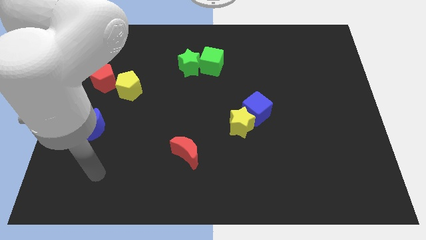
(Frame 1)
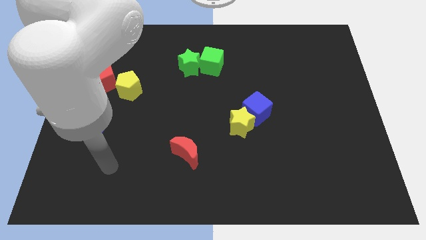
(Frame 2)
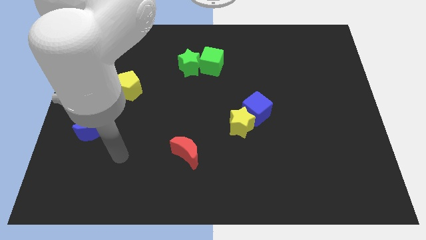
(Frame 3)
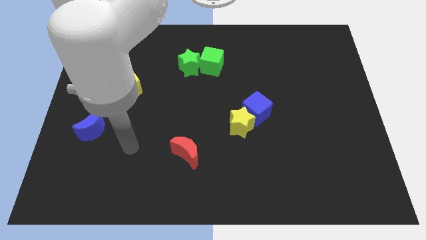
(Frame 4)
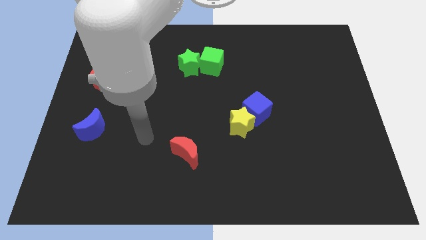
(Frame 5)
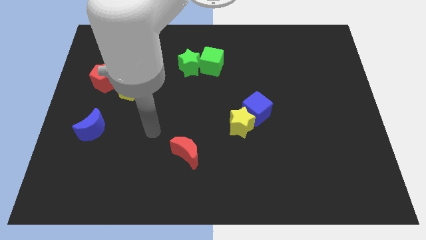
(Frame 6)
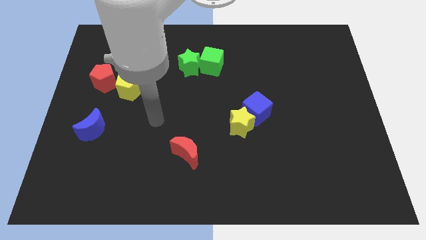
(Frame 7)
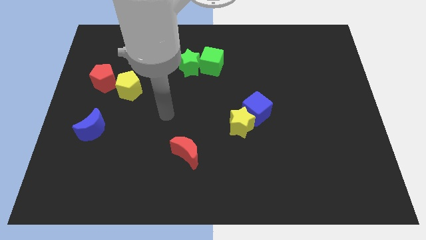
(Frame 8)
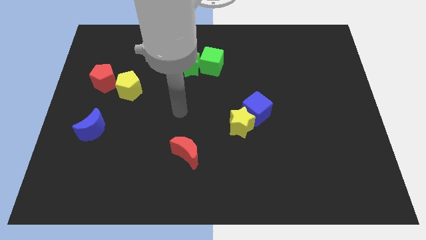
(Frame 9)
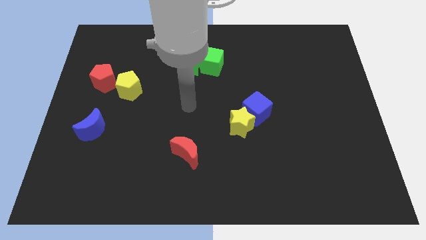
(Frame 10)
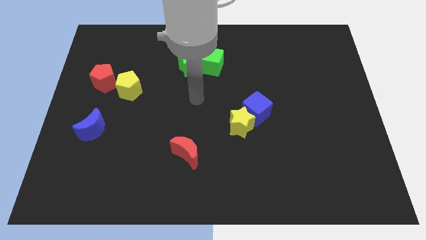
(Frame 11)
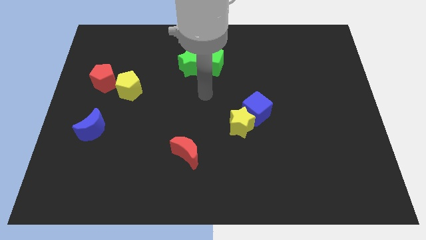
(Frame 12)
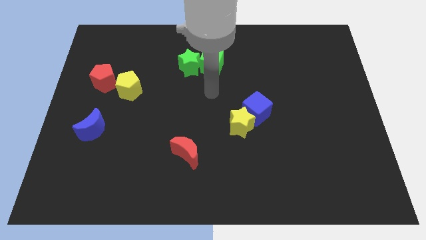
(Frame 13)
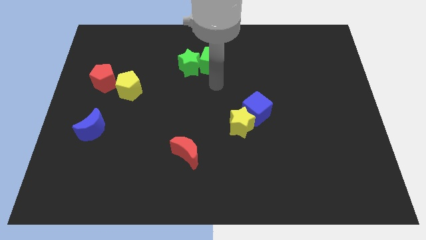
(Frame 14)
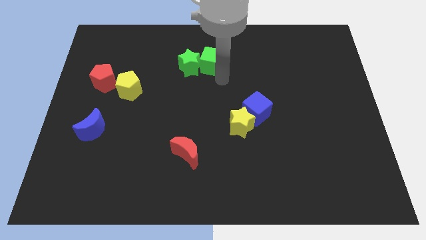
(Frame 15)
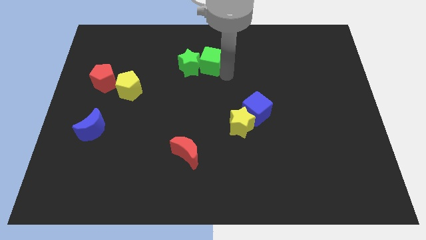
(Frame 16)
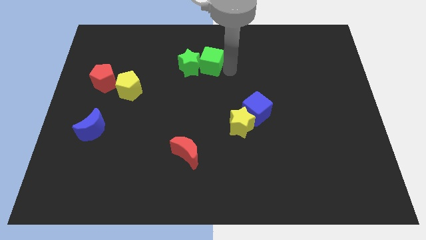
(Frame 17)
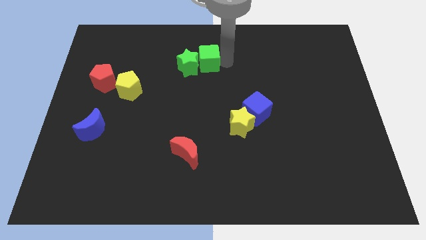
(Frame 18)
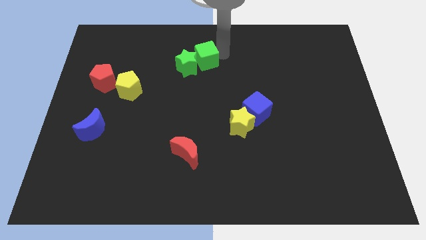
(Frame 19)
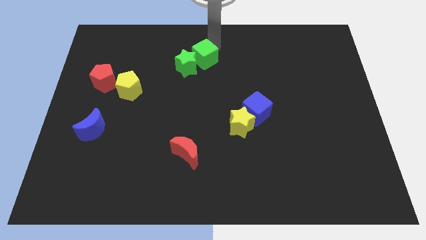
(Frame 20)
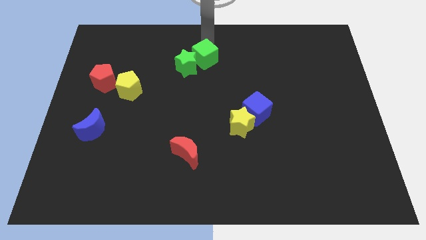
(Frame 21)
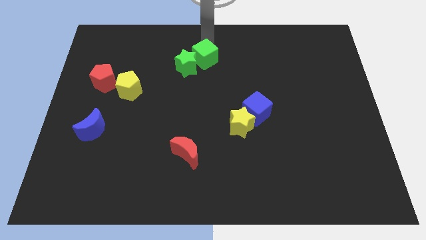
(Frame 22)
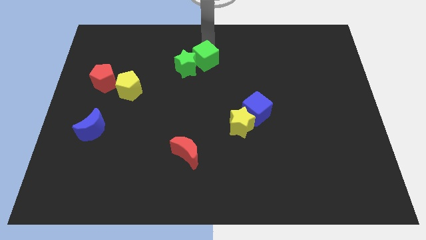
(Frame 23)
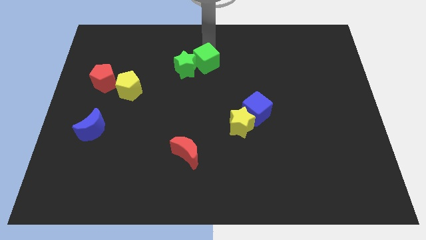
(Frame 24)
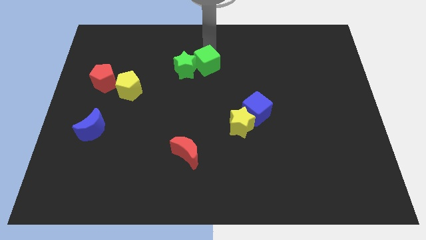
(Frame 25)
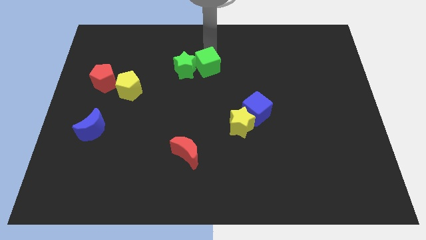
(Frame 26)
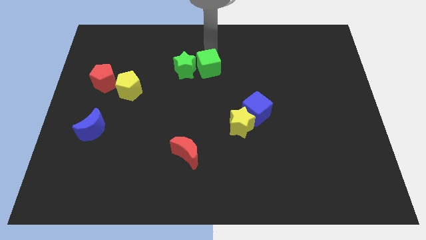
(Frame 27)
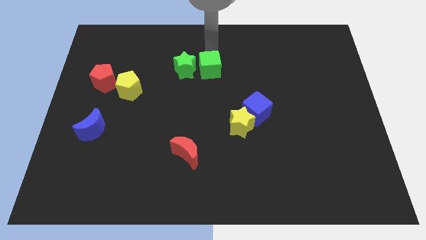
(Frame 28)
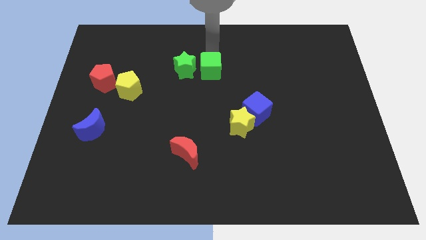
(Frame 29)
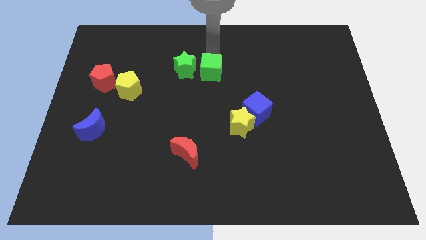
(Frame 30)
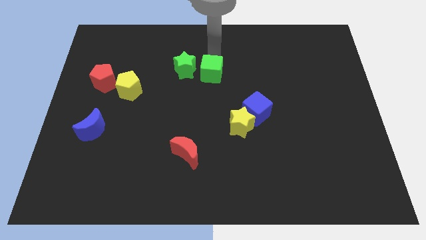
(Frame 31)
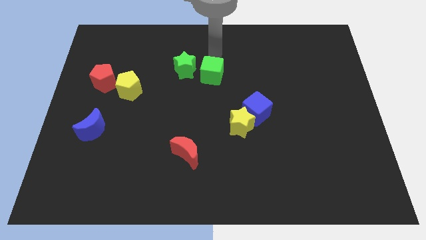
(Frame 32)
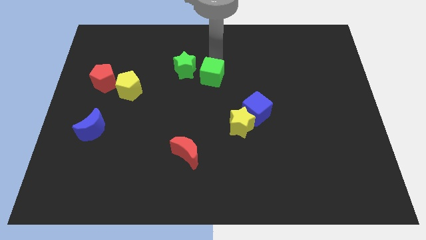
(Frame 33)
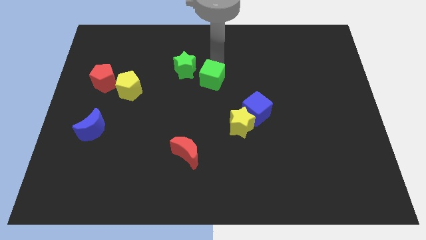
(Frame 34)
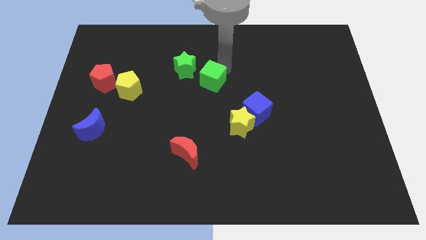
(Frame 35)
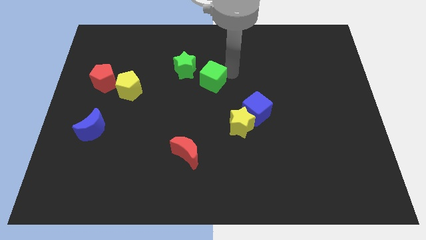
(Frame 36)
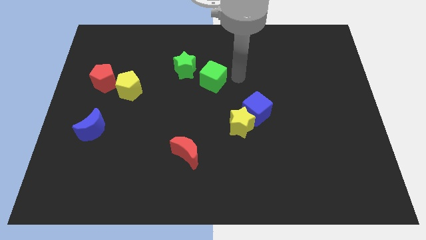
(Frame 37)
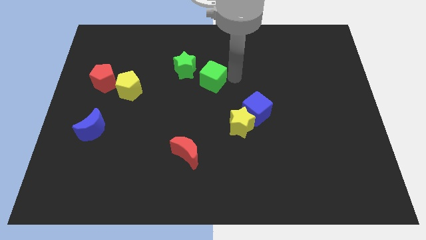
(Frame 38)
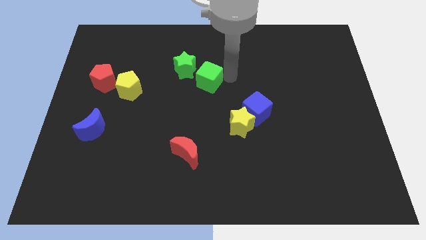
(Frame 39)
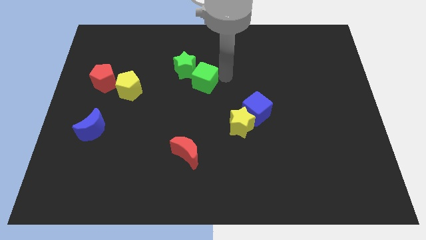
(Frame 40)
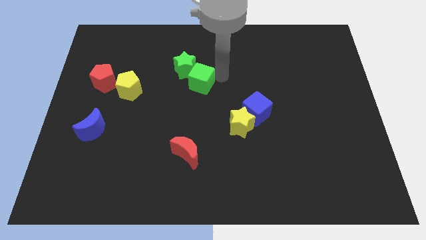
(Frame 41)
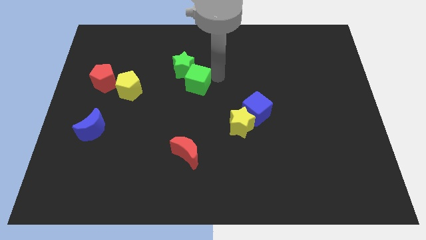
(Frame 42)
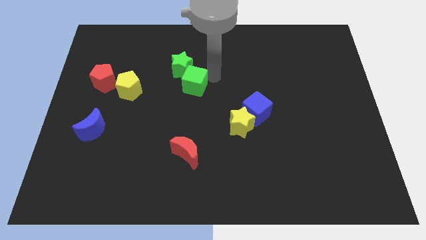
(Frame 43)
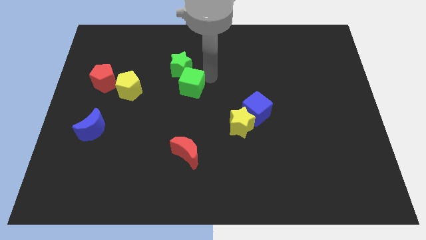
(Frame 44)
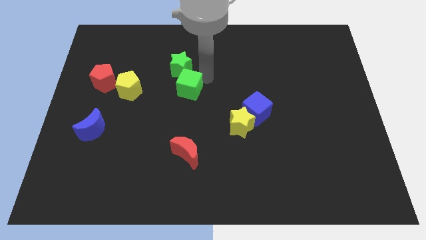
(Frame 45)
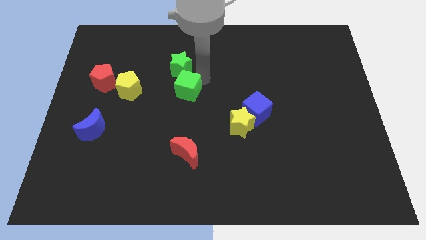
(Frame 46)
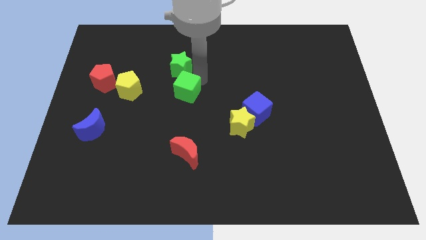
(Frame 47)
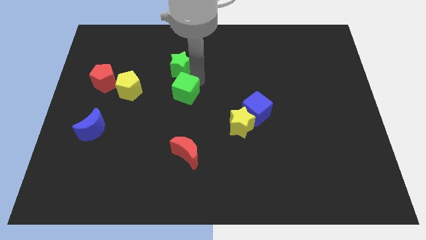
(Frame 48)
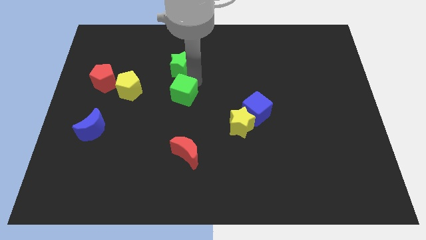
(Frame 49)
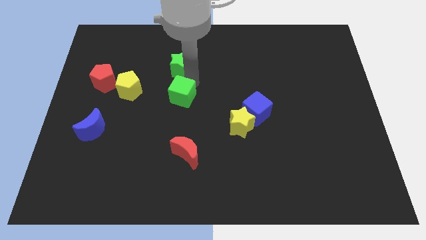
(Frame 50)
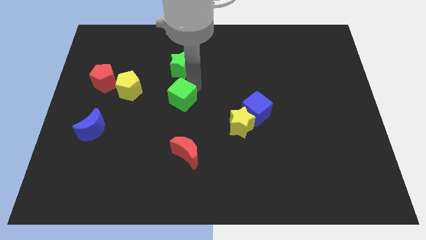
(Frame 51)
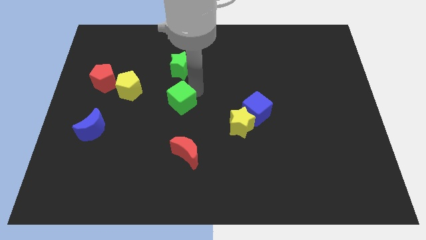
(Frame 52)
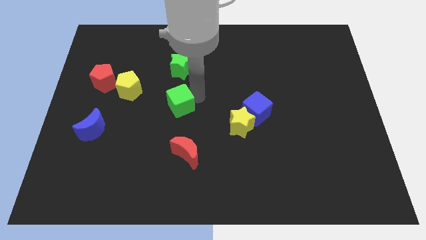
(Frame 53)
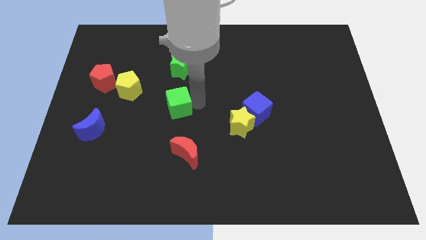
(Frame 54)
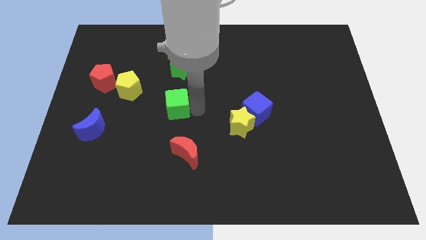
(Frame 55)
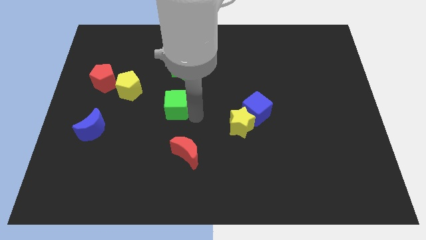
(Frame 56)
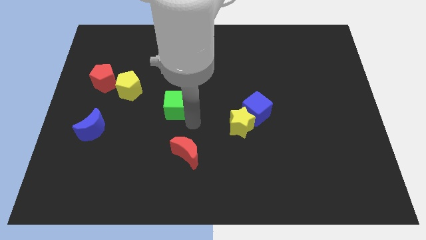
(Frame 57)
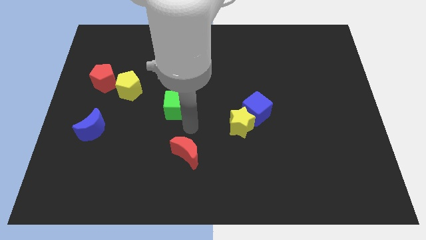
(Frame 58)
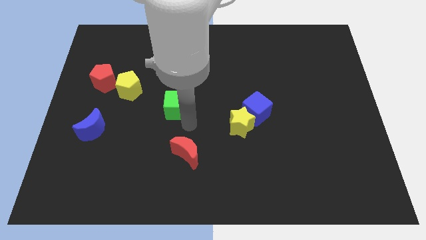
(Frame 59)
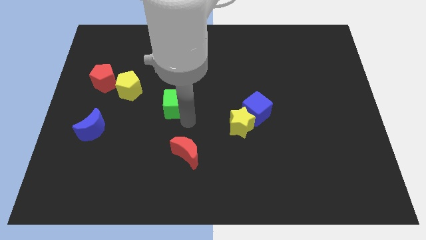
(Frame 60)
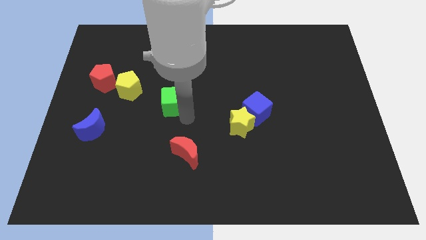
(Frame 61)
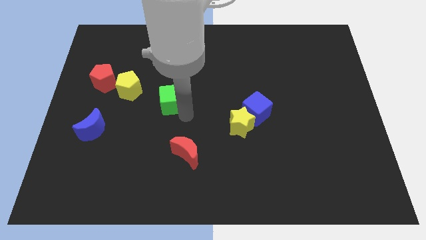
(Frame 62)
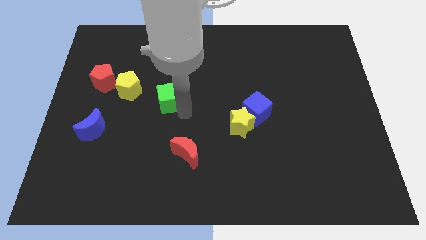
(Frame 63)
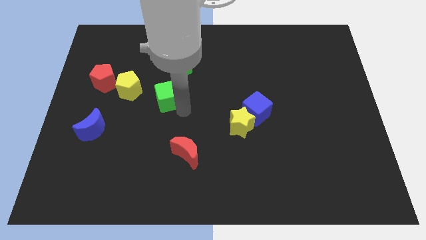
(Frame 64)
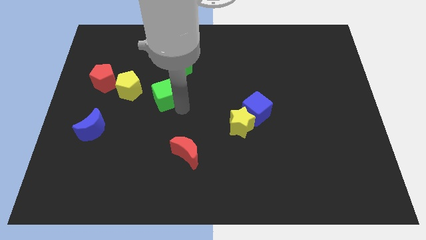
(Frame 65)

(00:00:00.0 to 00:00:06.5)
slide the green cube diagonally down and to the left of the green star
